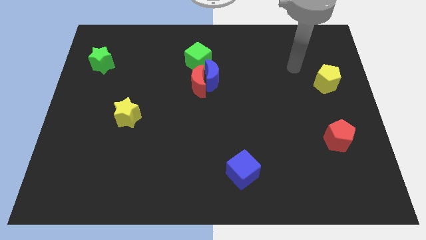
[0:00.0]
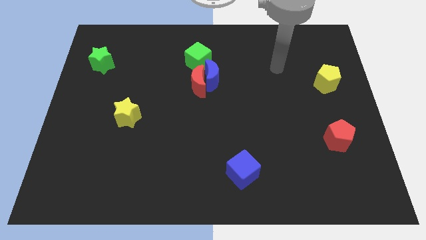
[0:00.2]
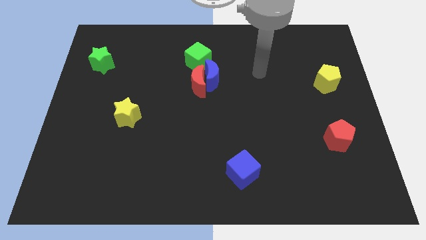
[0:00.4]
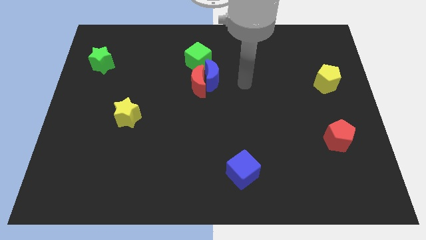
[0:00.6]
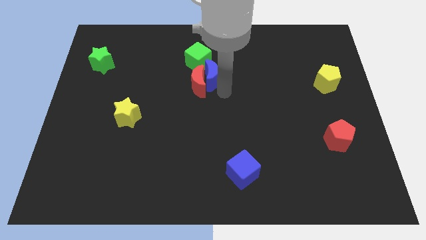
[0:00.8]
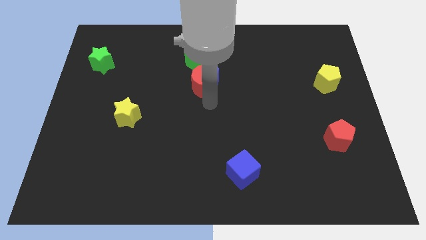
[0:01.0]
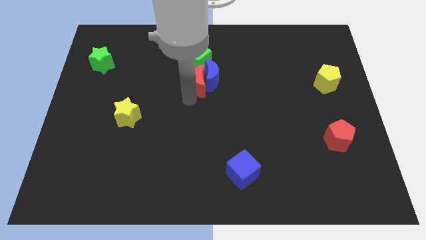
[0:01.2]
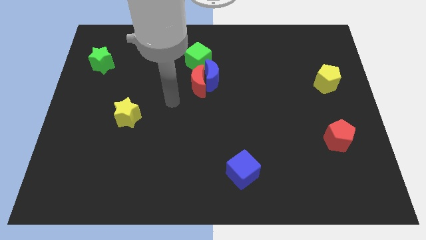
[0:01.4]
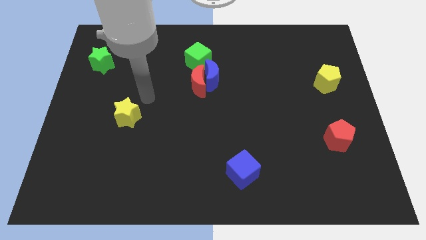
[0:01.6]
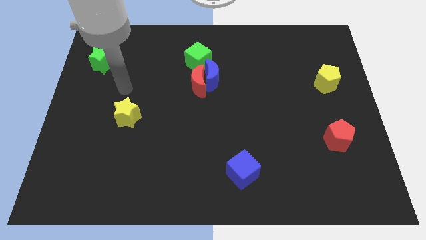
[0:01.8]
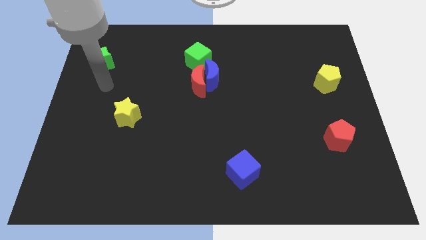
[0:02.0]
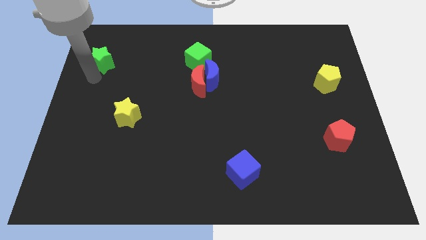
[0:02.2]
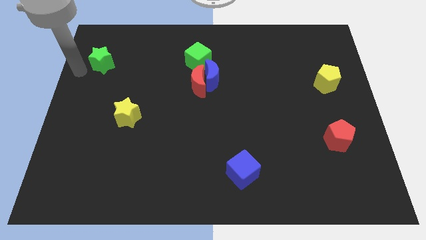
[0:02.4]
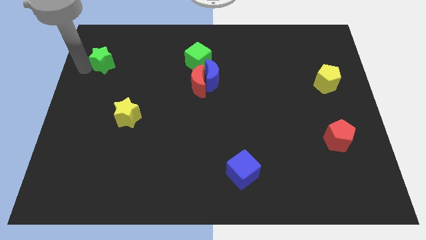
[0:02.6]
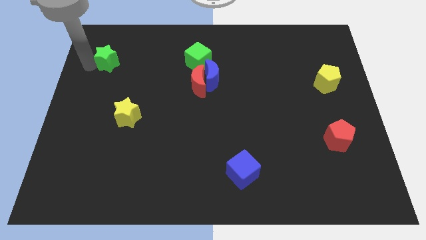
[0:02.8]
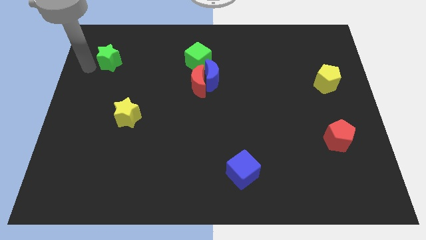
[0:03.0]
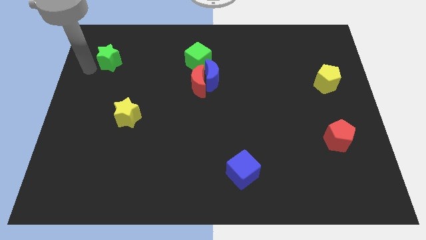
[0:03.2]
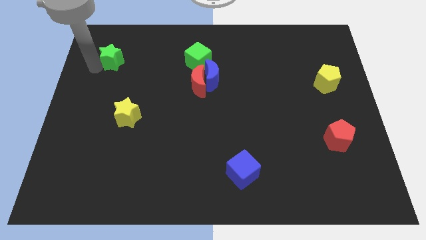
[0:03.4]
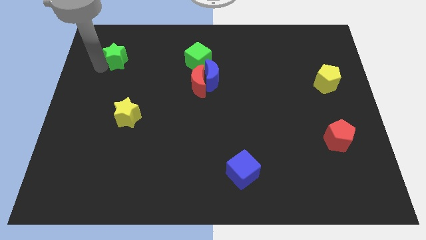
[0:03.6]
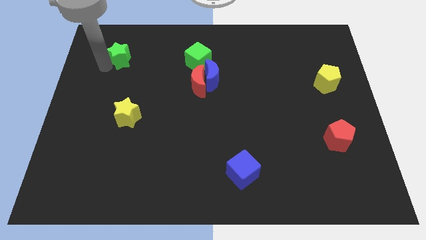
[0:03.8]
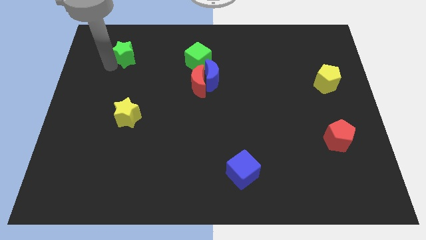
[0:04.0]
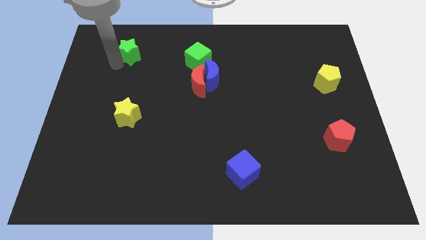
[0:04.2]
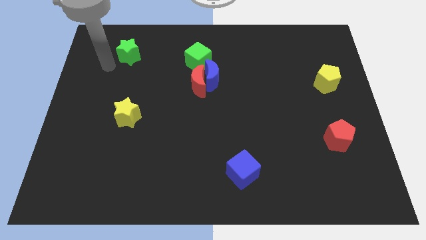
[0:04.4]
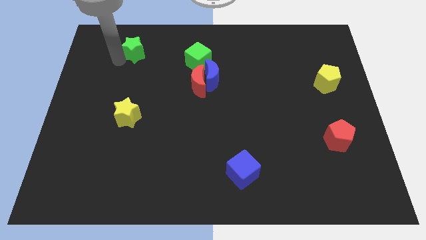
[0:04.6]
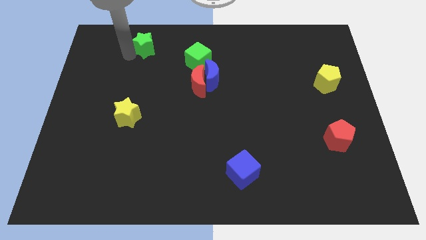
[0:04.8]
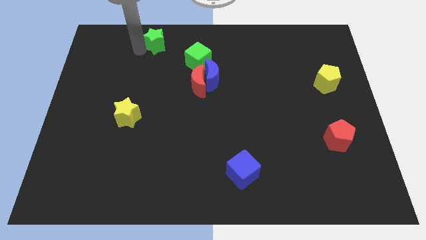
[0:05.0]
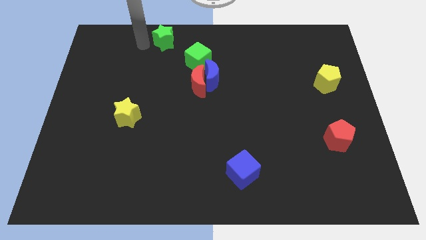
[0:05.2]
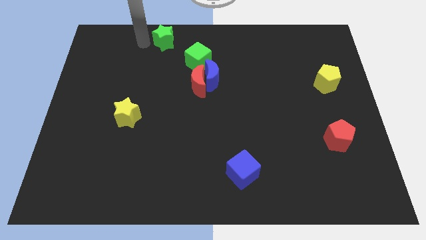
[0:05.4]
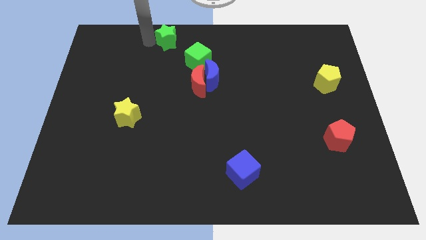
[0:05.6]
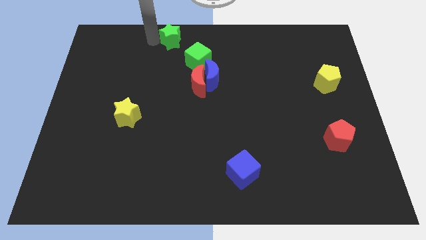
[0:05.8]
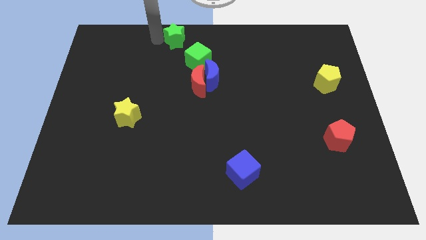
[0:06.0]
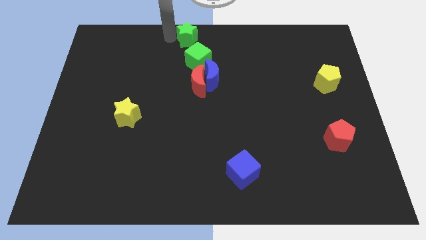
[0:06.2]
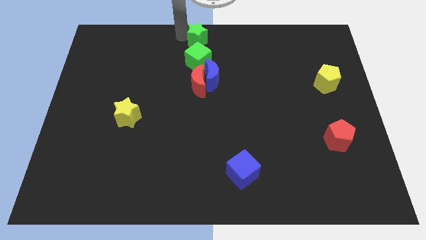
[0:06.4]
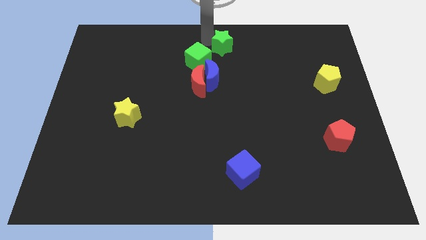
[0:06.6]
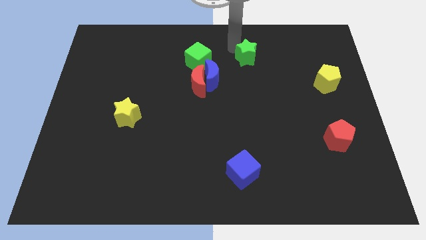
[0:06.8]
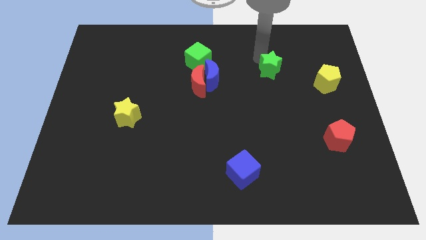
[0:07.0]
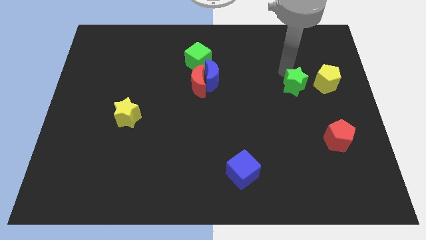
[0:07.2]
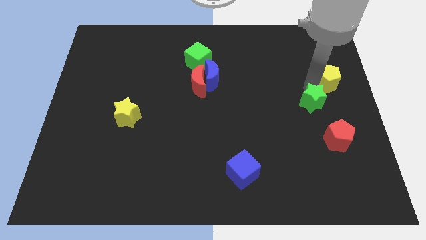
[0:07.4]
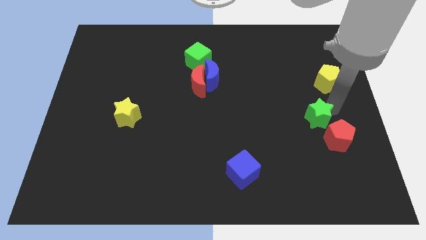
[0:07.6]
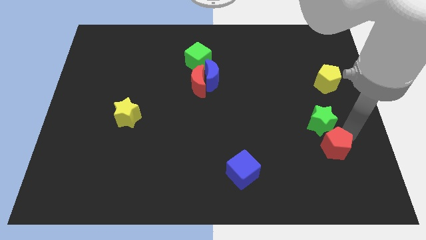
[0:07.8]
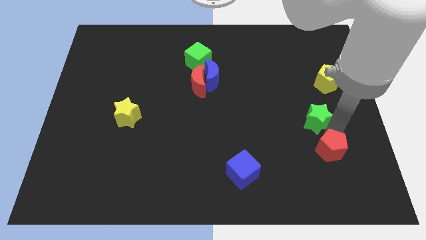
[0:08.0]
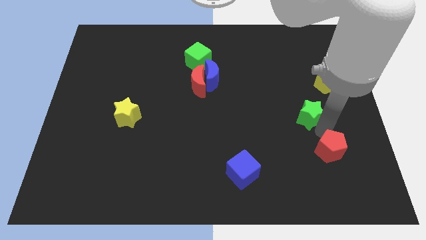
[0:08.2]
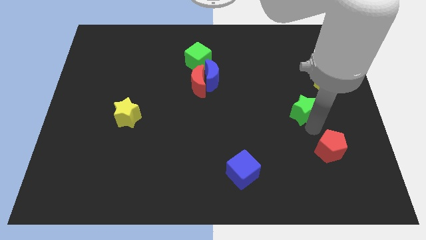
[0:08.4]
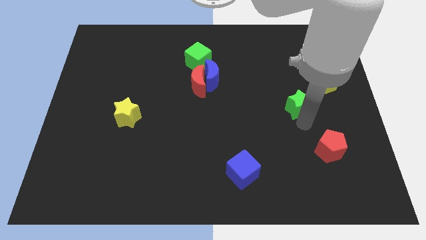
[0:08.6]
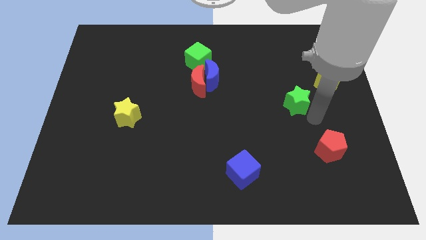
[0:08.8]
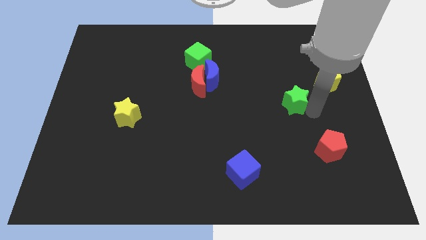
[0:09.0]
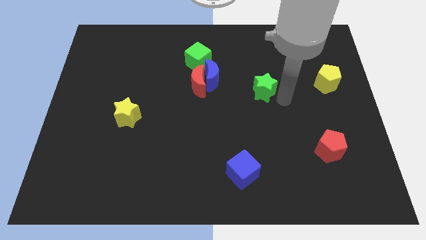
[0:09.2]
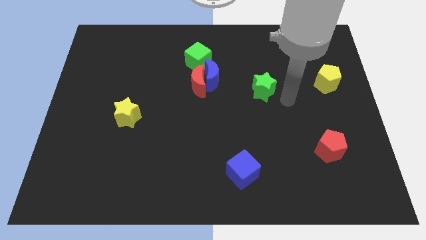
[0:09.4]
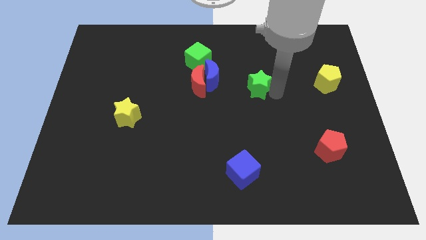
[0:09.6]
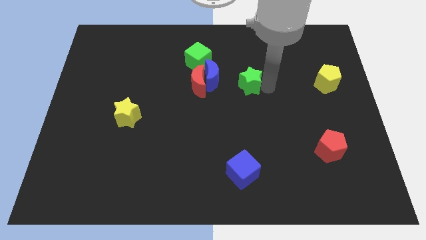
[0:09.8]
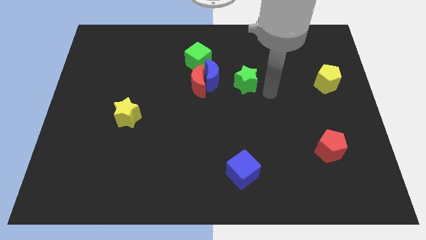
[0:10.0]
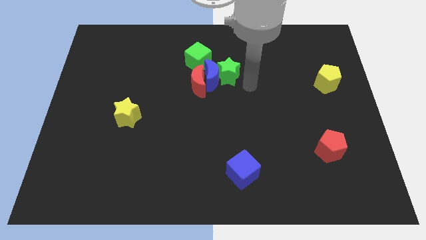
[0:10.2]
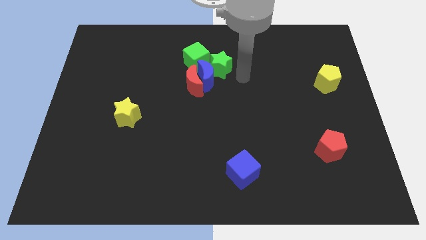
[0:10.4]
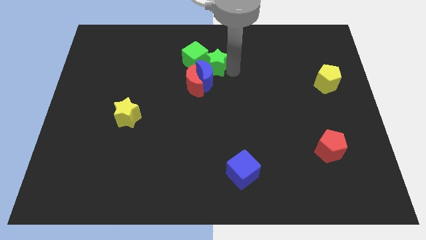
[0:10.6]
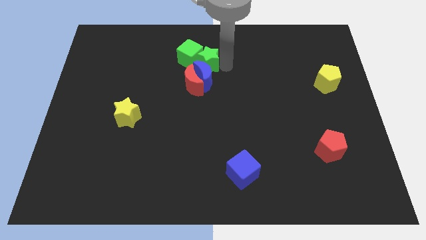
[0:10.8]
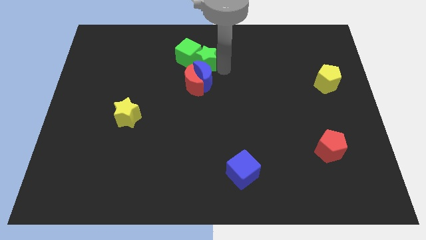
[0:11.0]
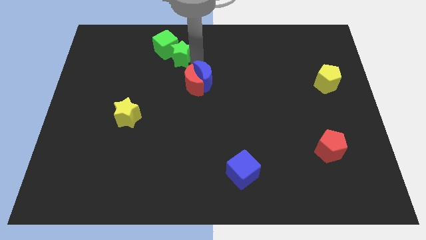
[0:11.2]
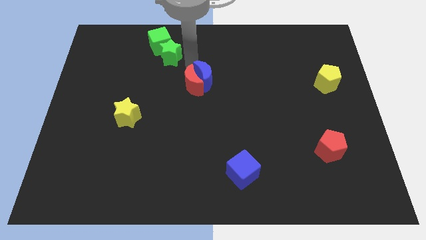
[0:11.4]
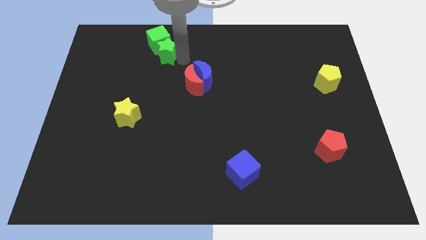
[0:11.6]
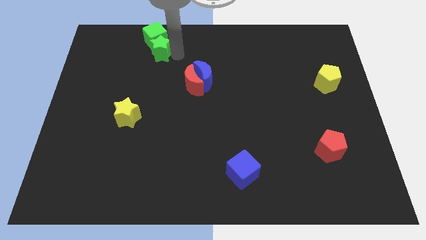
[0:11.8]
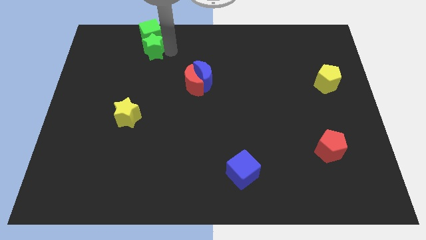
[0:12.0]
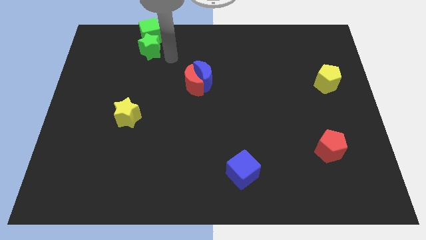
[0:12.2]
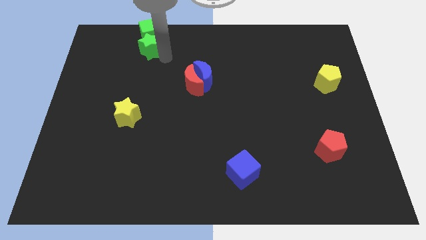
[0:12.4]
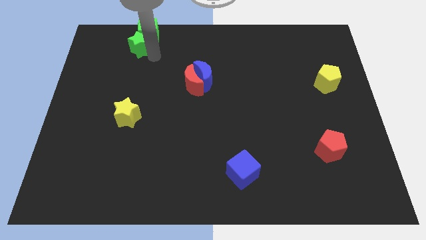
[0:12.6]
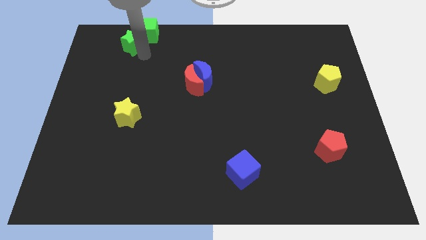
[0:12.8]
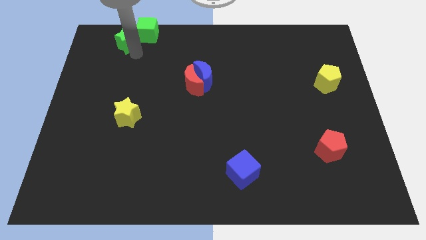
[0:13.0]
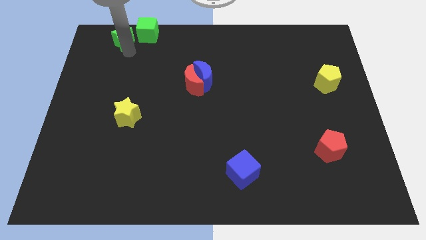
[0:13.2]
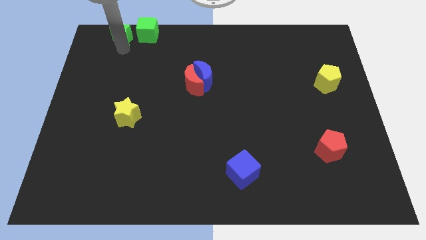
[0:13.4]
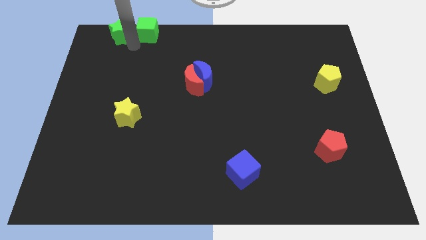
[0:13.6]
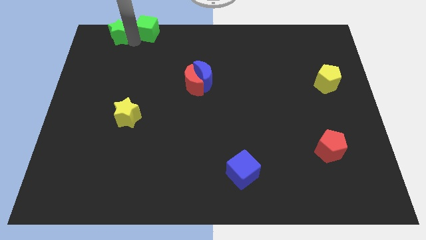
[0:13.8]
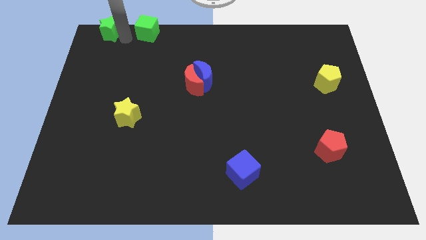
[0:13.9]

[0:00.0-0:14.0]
push the green star to the upper left corner
